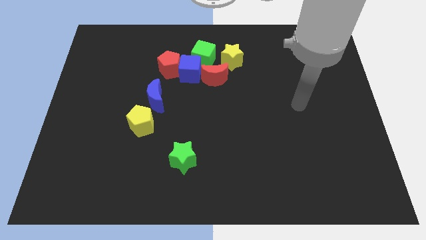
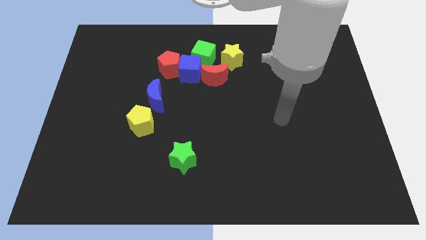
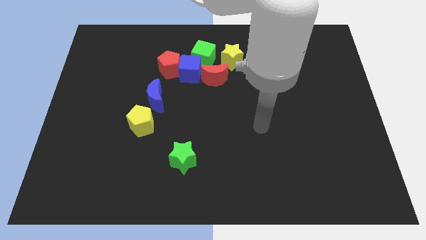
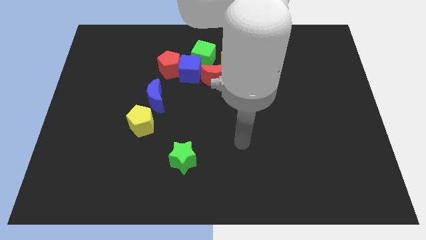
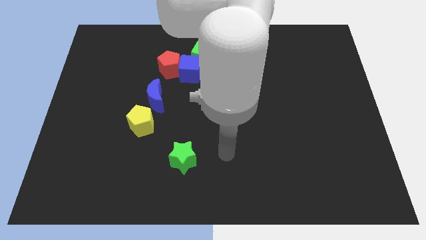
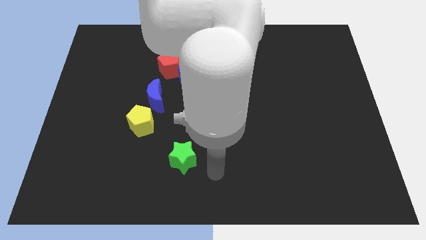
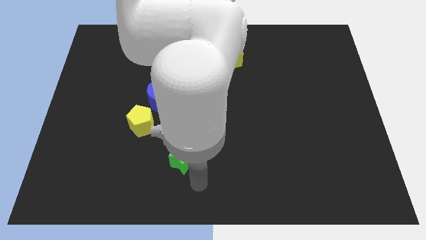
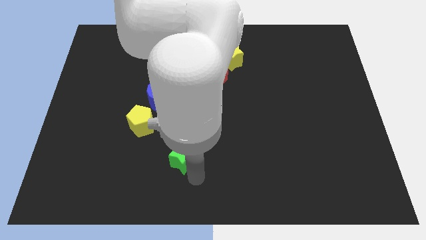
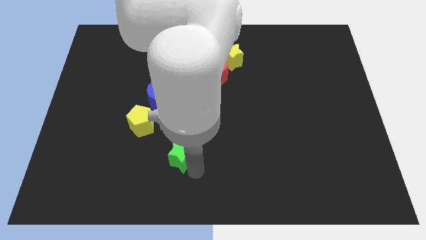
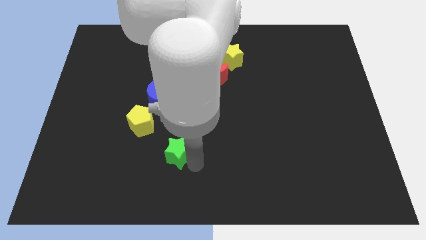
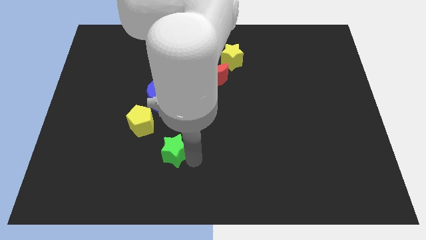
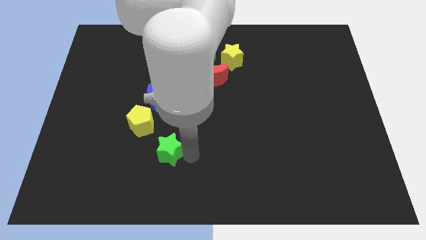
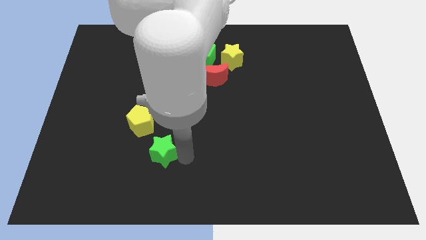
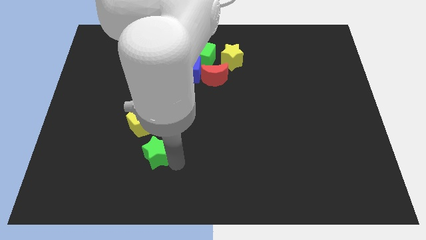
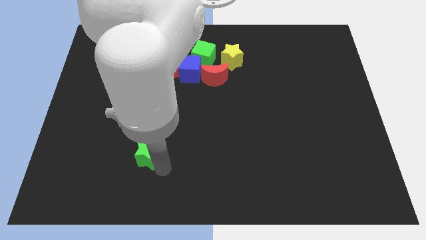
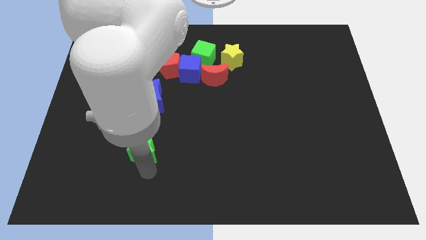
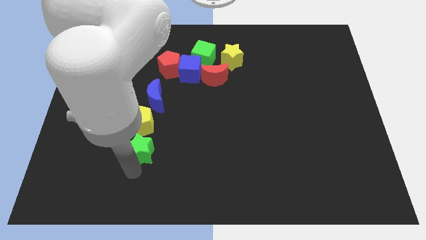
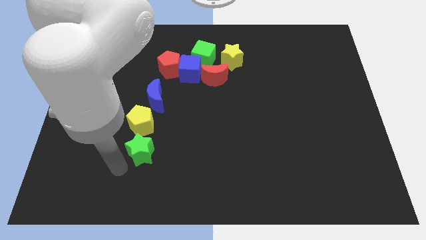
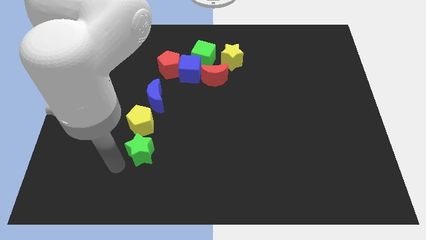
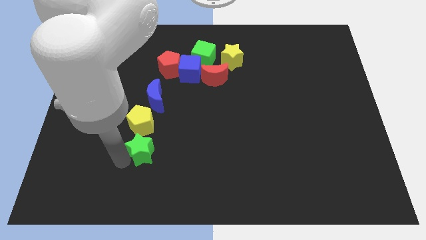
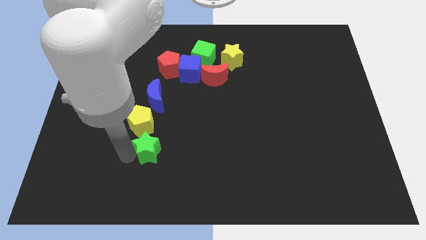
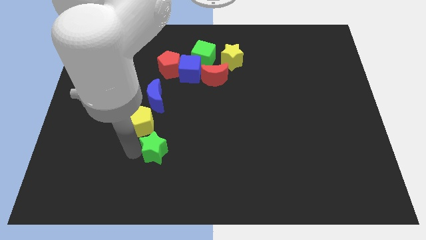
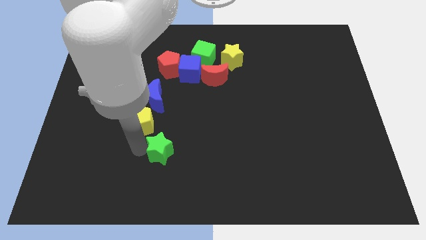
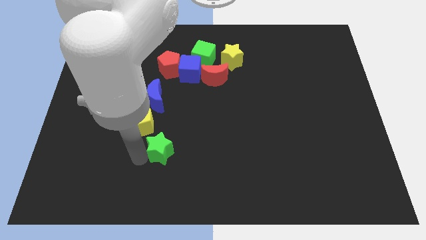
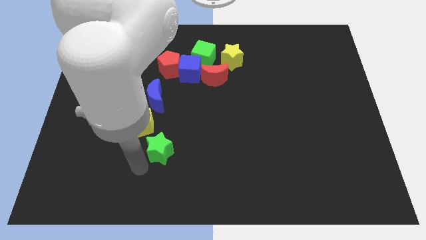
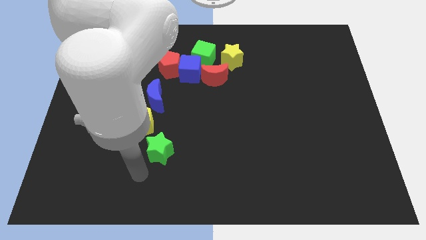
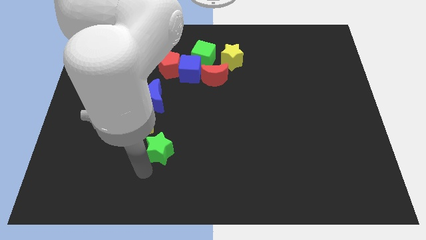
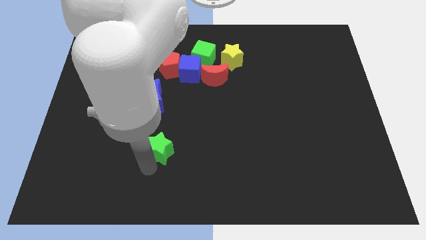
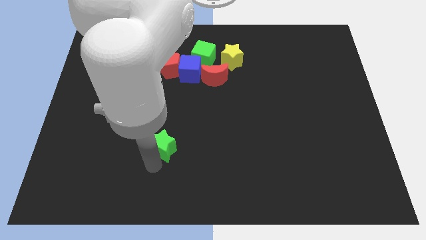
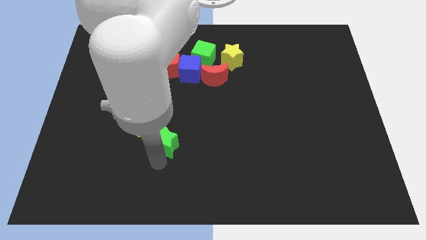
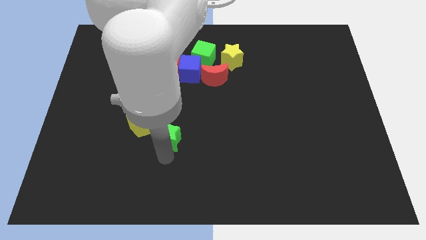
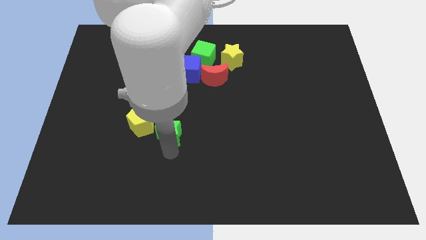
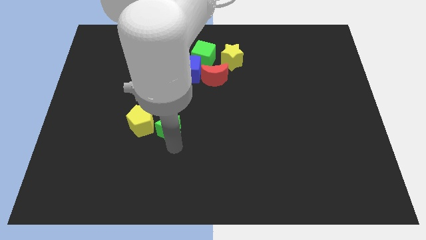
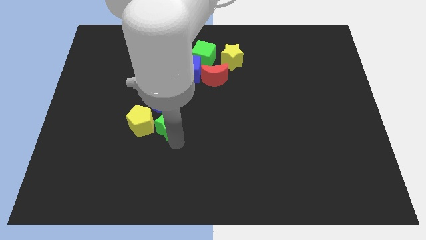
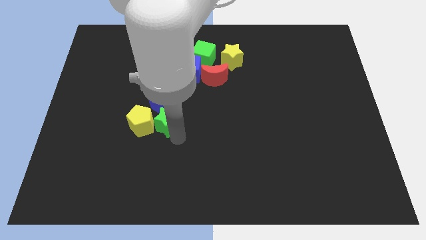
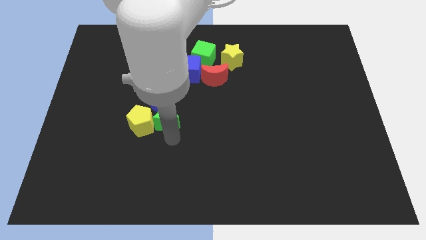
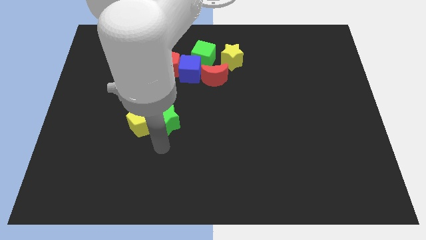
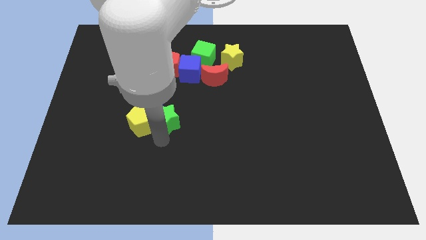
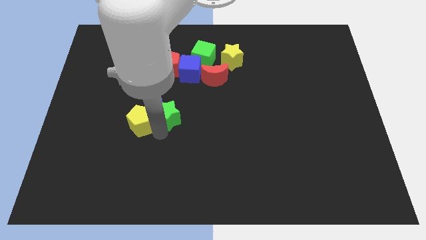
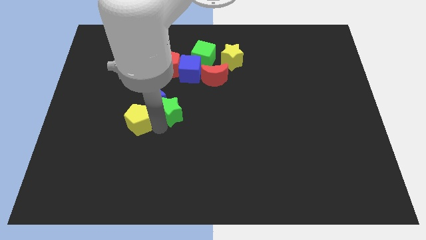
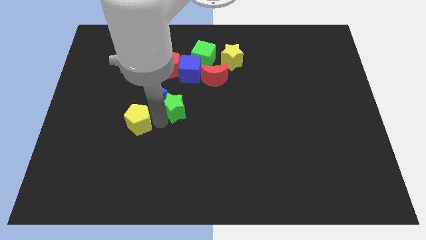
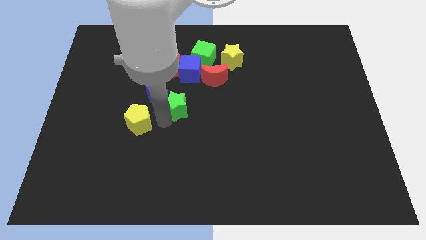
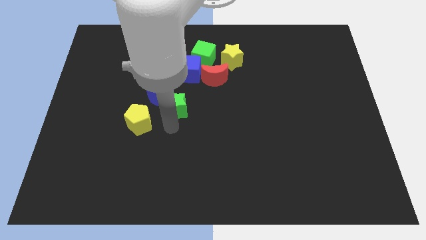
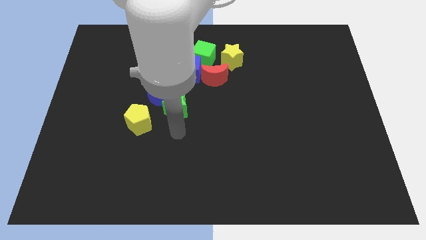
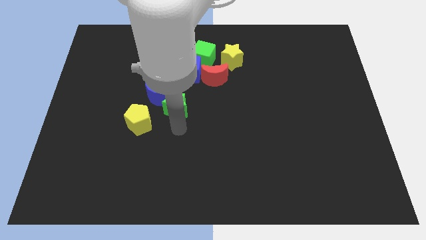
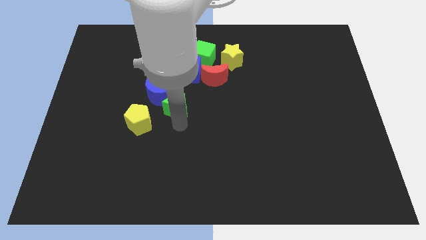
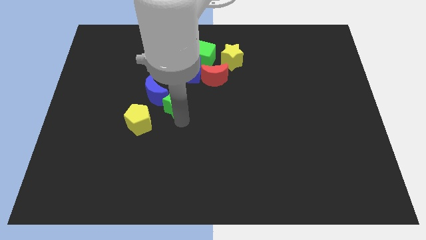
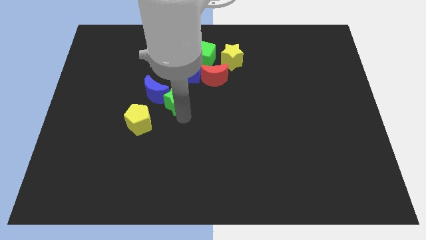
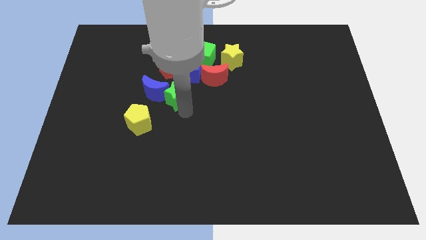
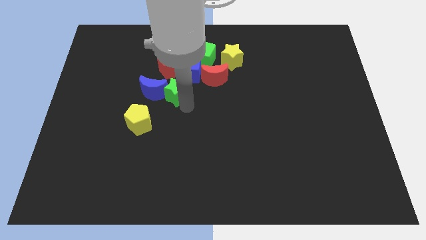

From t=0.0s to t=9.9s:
move the green star diagonally up and to the right of the blue moon

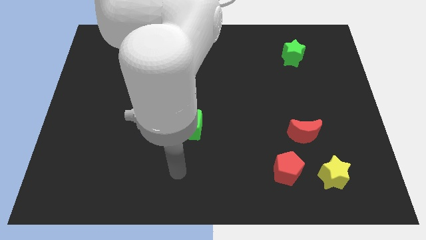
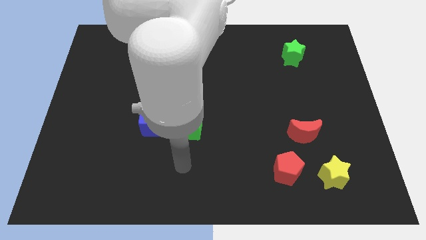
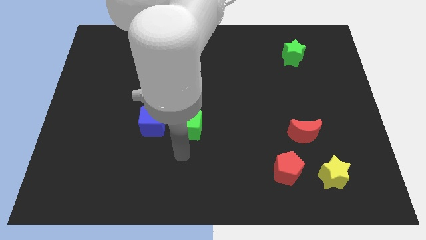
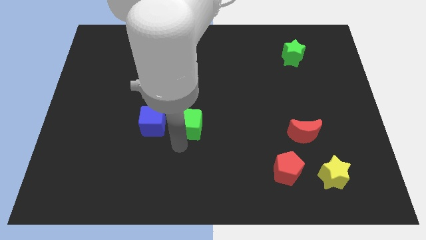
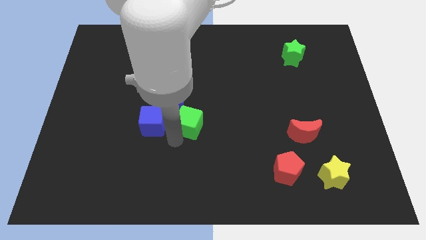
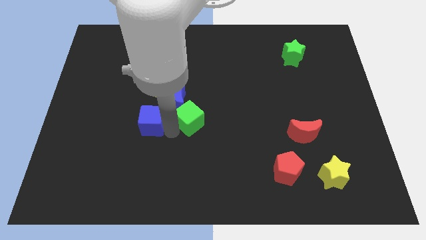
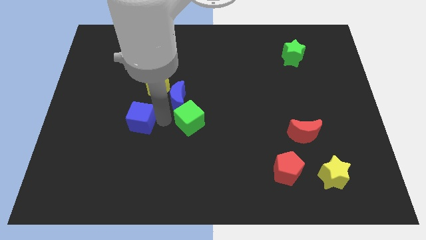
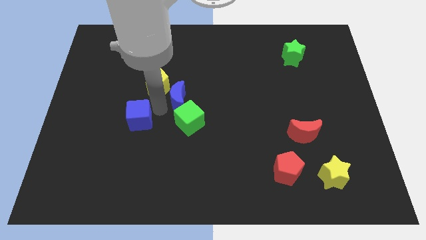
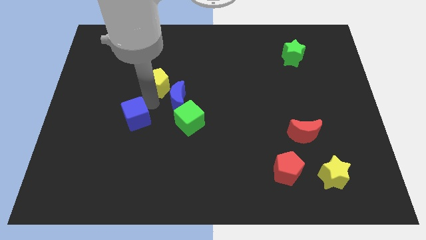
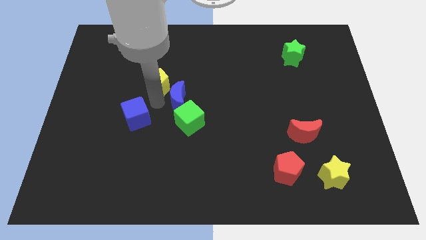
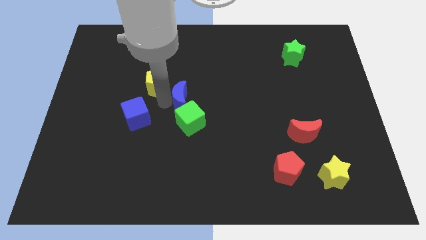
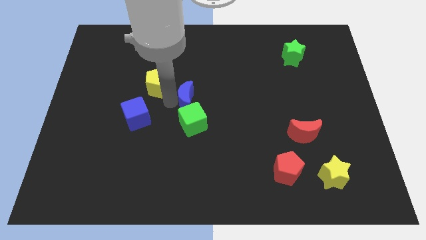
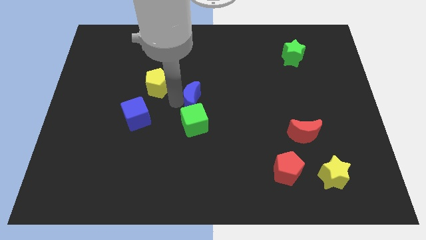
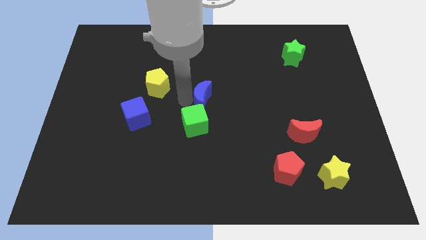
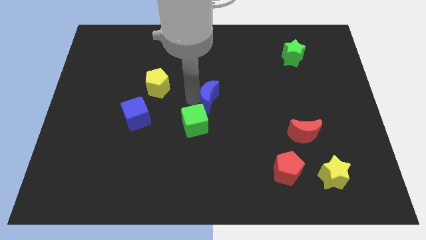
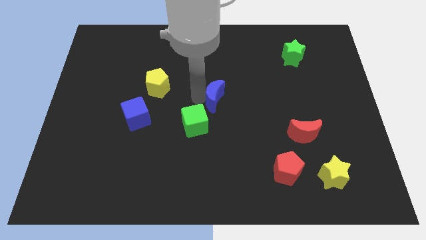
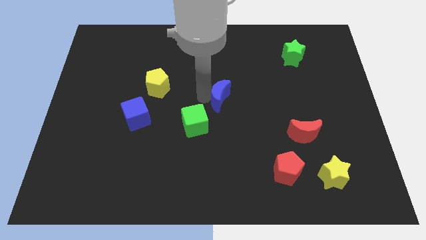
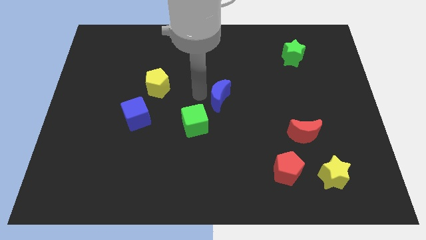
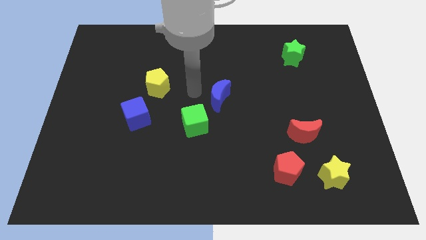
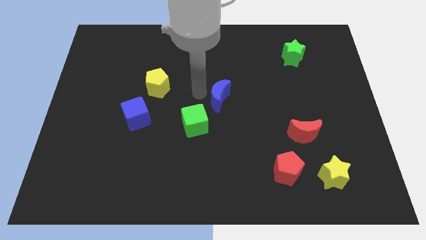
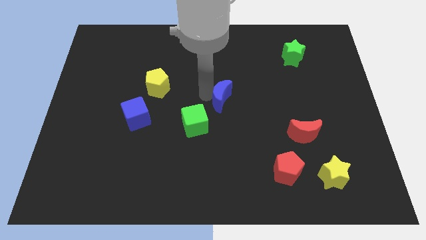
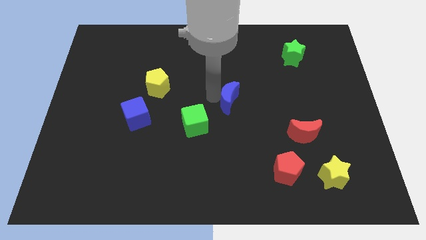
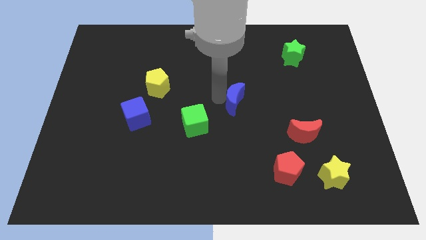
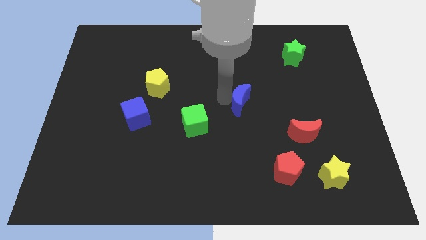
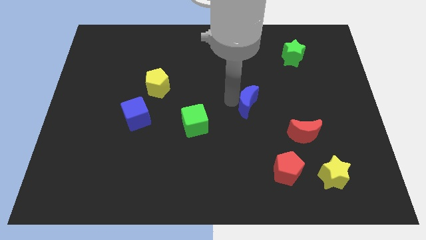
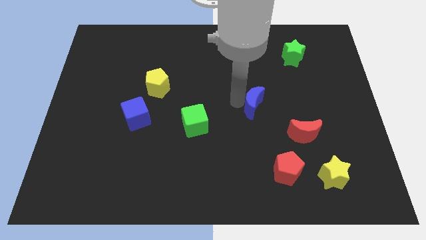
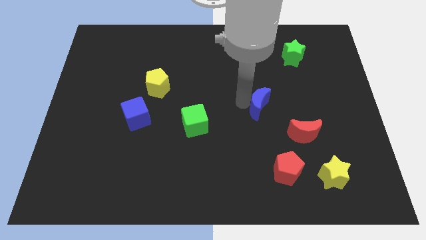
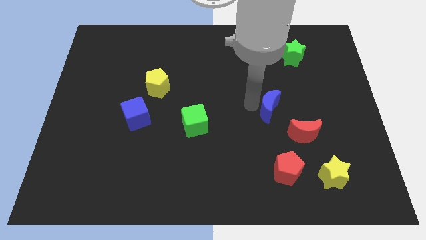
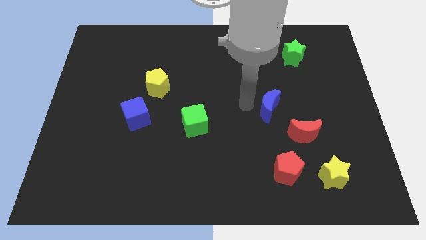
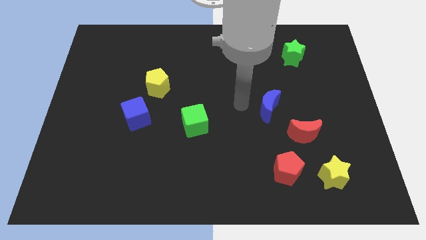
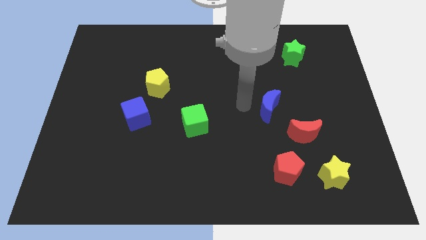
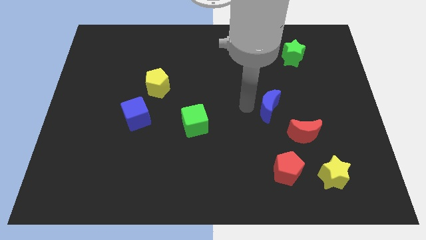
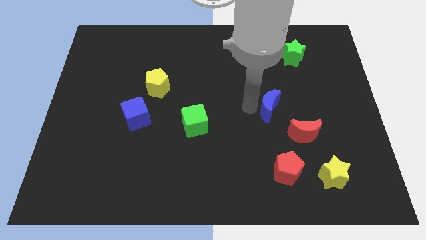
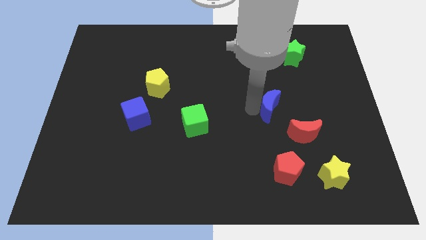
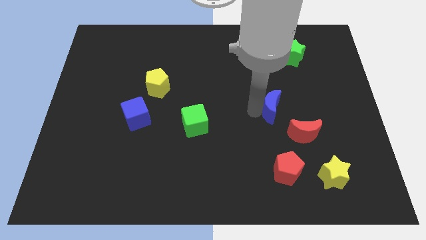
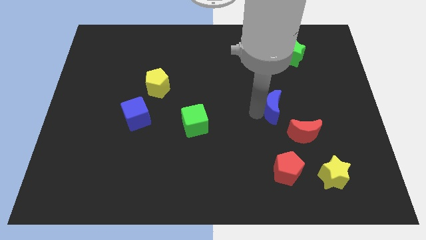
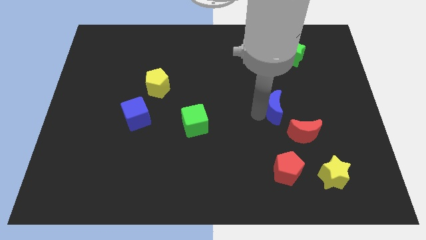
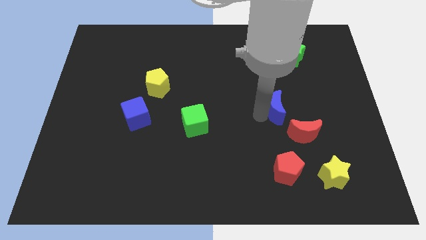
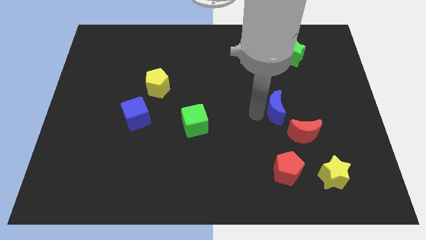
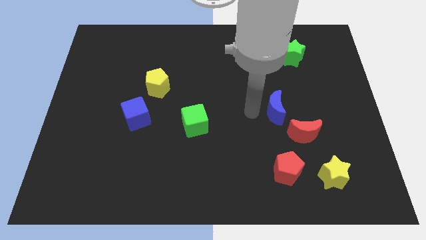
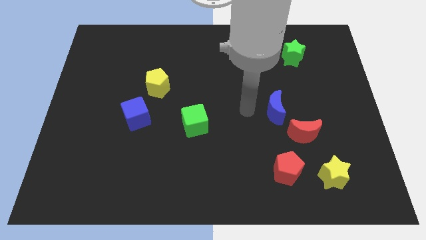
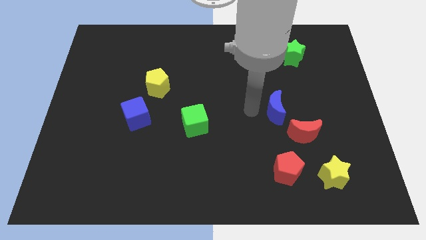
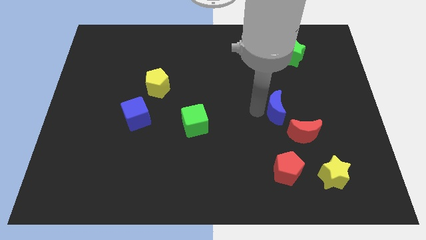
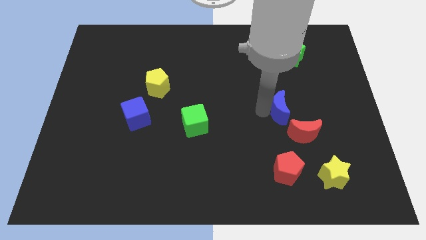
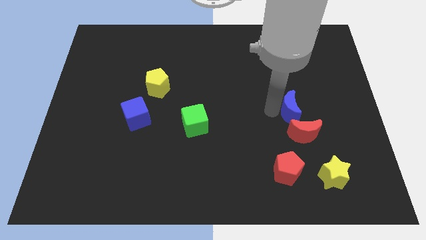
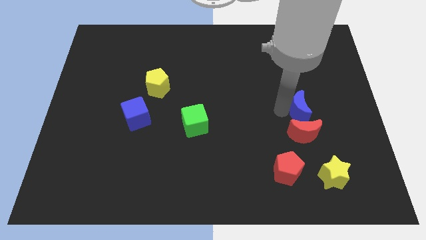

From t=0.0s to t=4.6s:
put the blue moon to the top right side of the red moon
